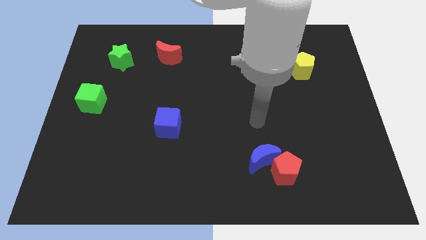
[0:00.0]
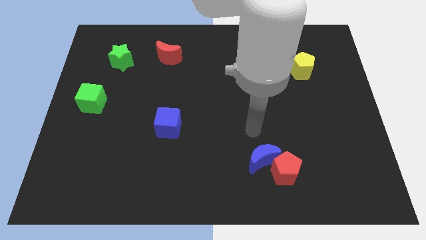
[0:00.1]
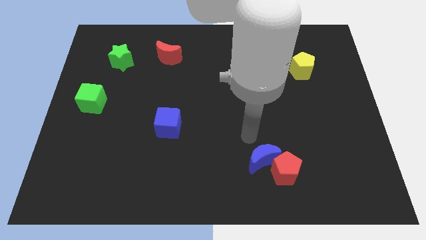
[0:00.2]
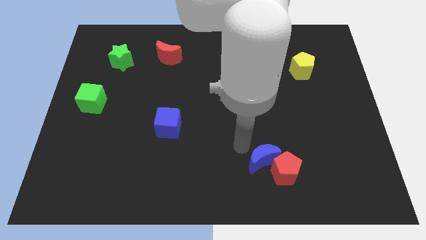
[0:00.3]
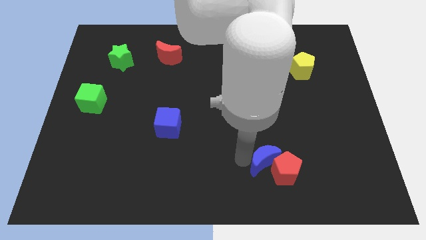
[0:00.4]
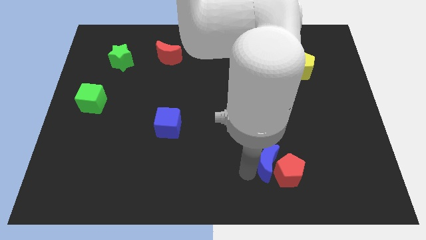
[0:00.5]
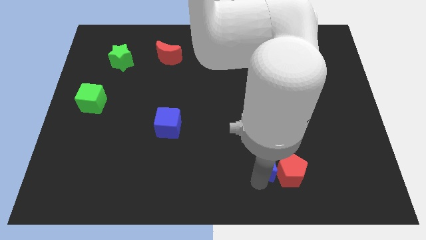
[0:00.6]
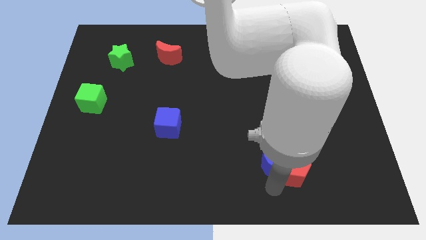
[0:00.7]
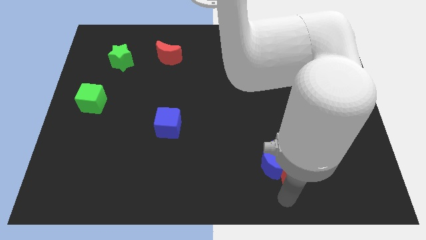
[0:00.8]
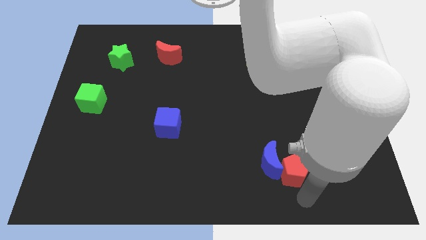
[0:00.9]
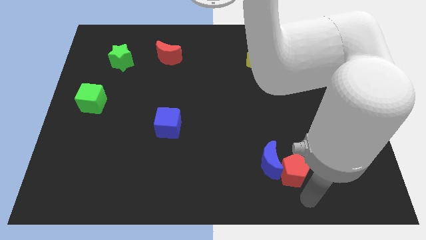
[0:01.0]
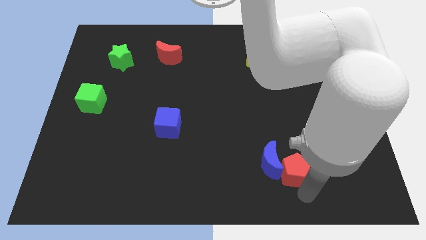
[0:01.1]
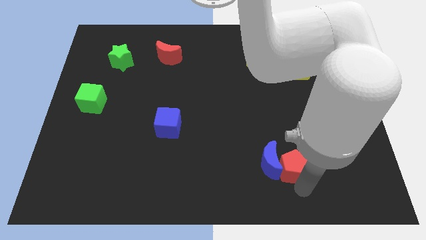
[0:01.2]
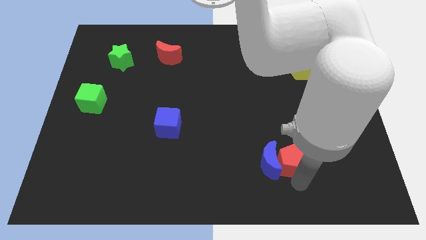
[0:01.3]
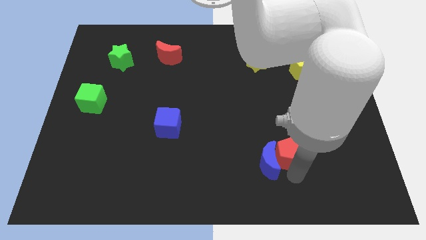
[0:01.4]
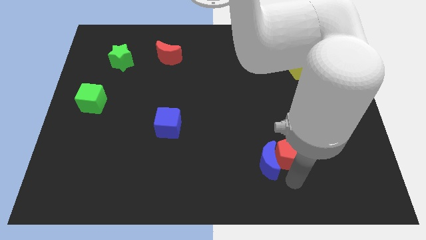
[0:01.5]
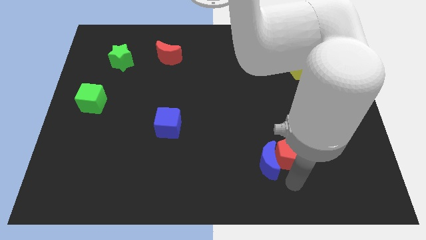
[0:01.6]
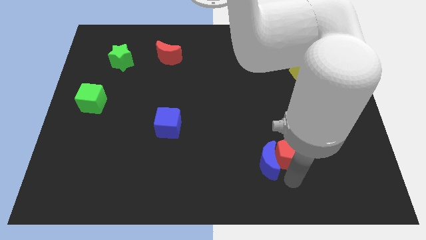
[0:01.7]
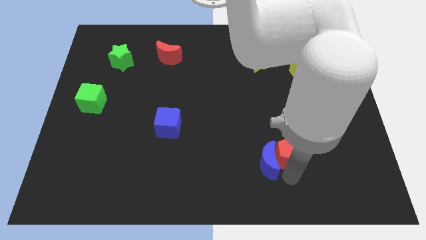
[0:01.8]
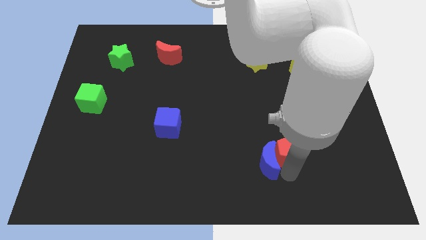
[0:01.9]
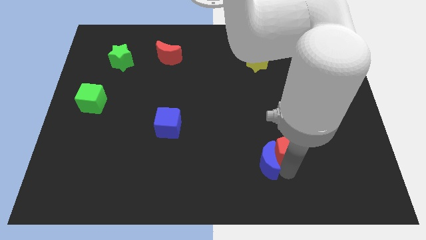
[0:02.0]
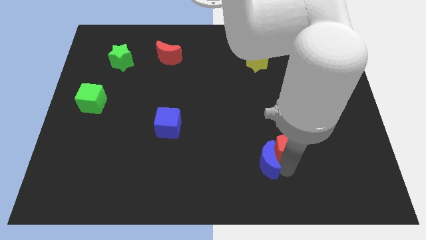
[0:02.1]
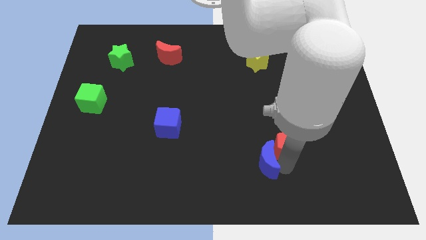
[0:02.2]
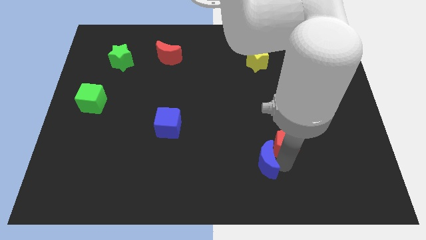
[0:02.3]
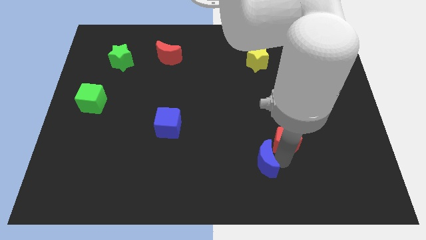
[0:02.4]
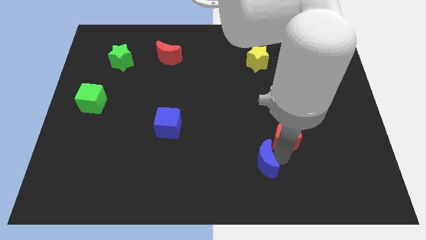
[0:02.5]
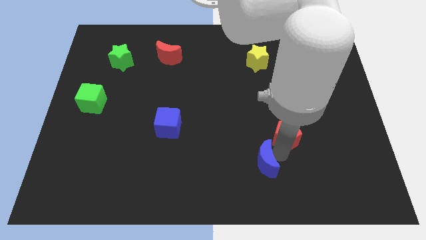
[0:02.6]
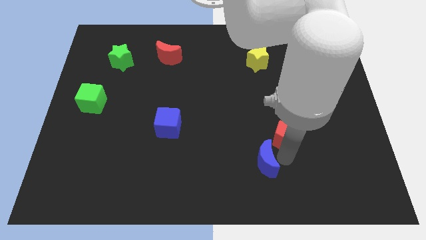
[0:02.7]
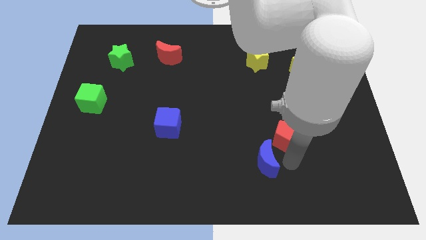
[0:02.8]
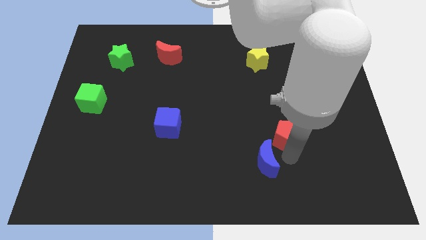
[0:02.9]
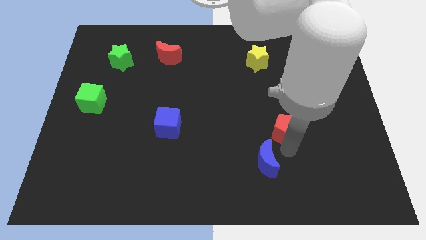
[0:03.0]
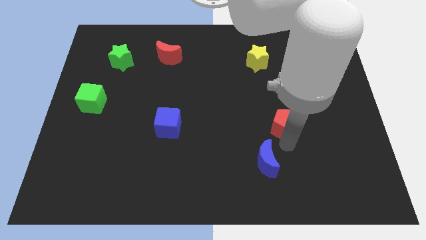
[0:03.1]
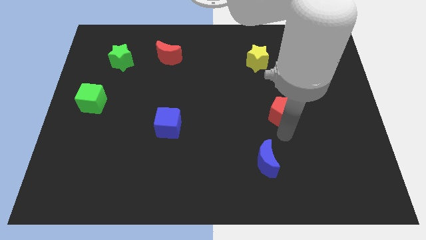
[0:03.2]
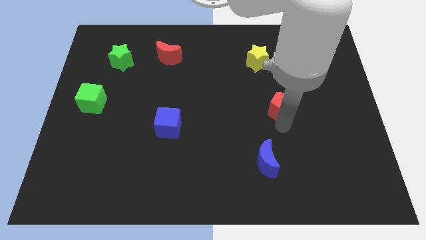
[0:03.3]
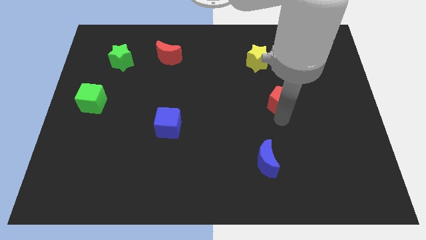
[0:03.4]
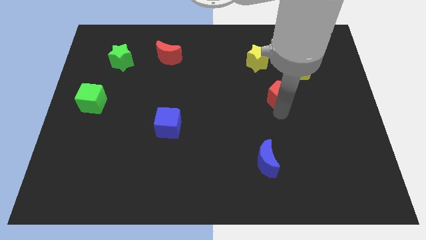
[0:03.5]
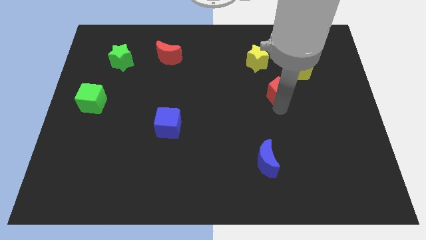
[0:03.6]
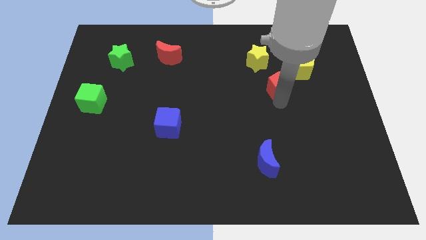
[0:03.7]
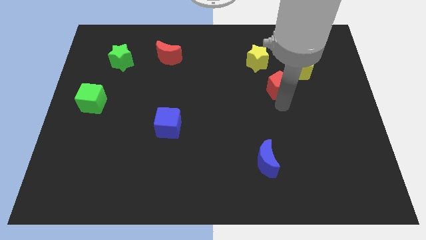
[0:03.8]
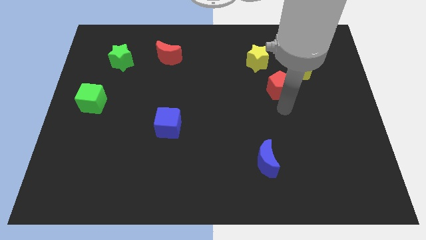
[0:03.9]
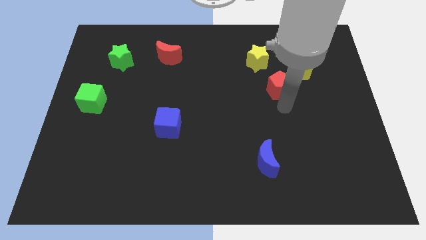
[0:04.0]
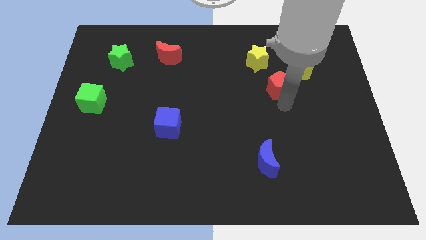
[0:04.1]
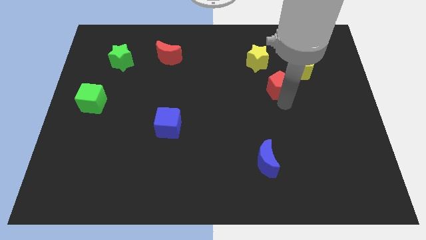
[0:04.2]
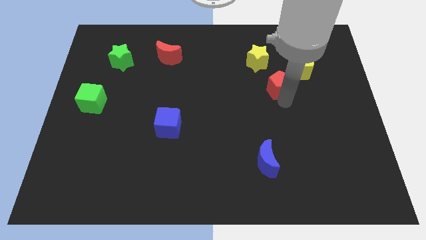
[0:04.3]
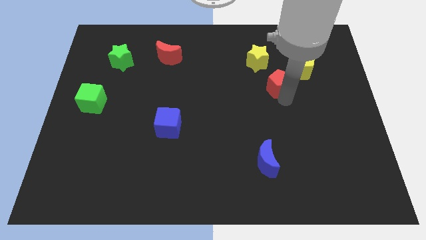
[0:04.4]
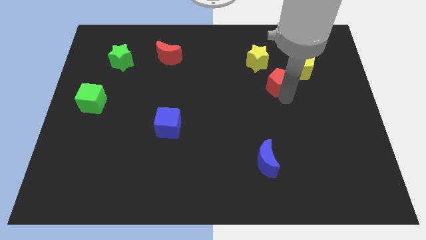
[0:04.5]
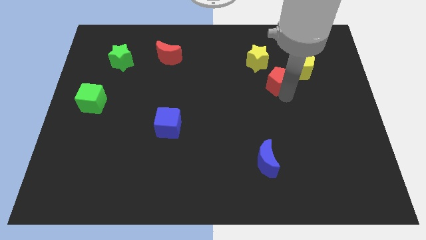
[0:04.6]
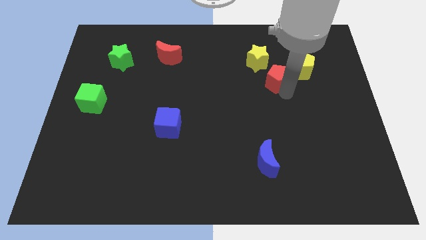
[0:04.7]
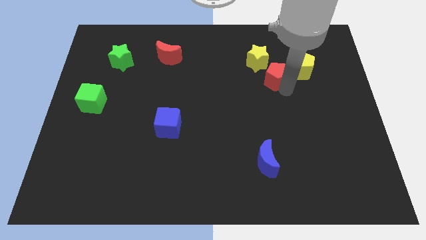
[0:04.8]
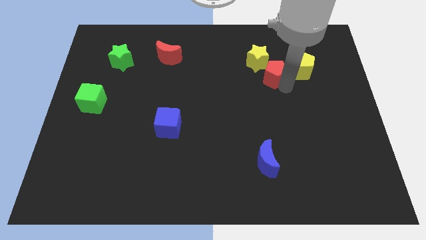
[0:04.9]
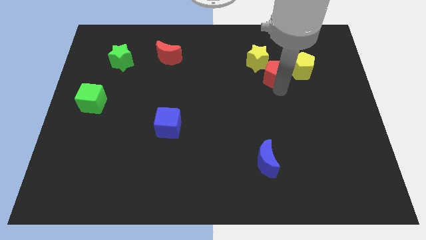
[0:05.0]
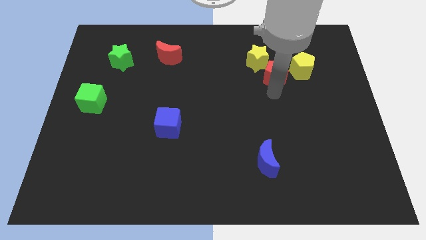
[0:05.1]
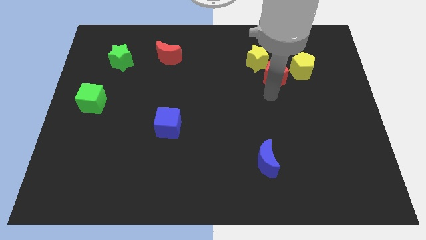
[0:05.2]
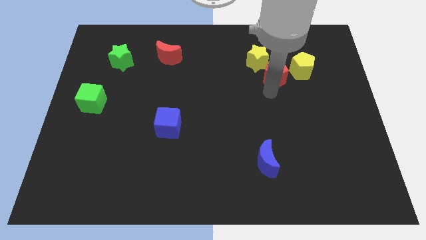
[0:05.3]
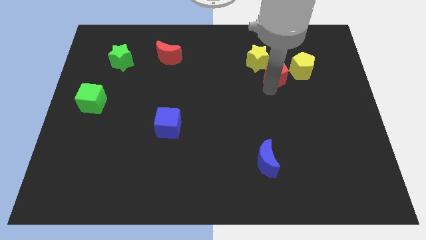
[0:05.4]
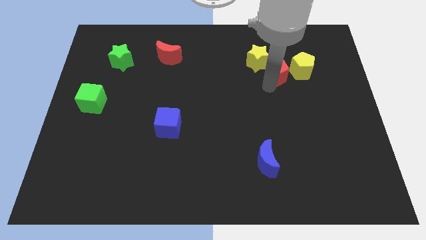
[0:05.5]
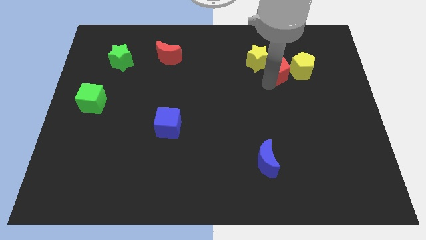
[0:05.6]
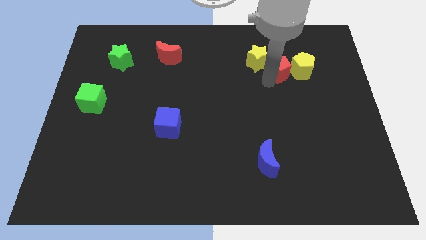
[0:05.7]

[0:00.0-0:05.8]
push the red pentagon to the top left side of the yellow pentagon

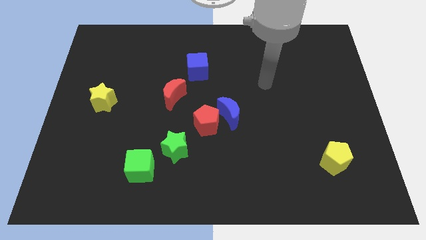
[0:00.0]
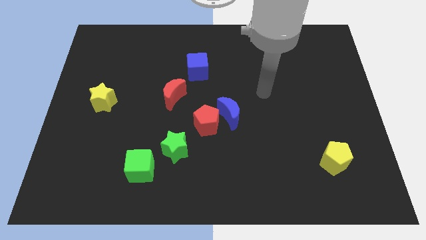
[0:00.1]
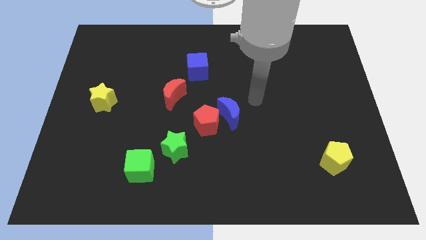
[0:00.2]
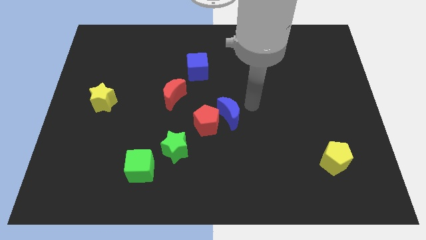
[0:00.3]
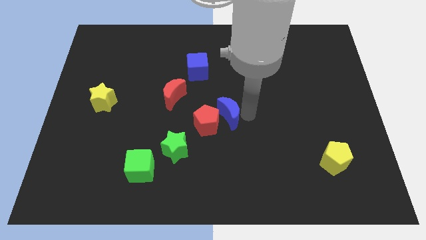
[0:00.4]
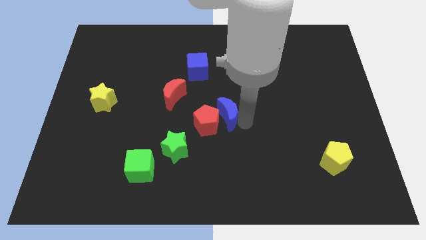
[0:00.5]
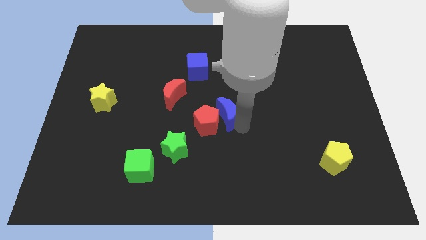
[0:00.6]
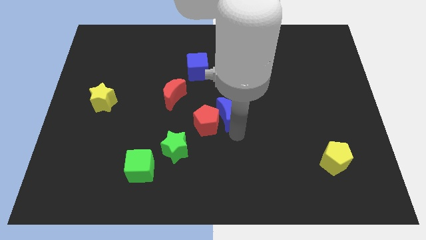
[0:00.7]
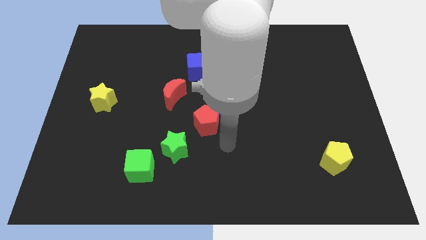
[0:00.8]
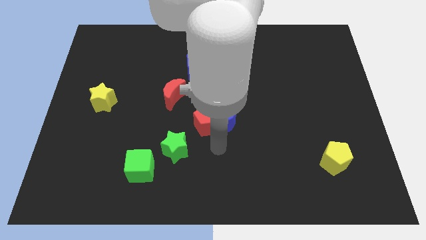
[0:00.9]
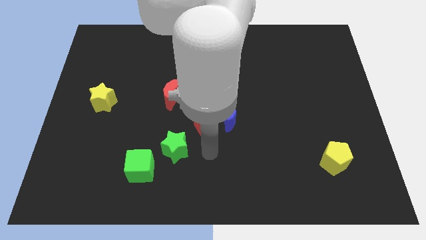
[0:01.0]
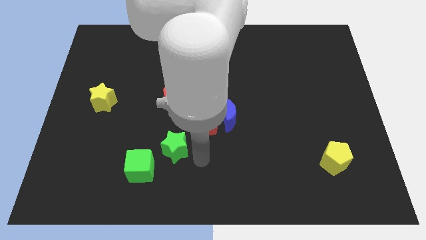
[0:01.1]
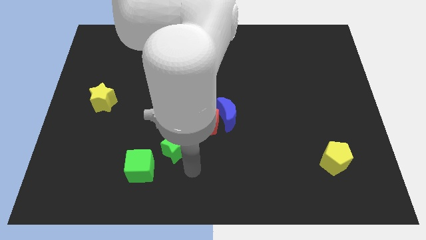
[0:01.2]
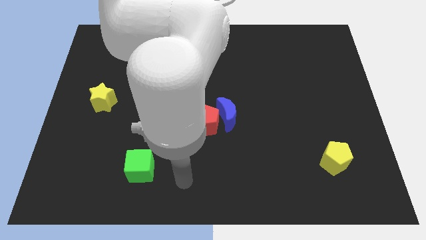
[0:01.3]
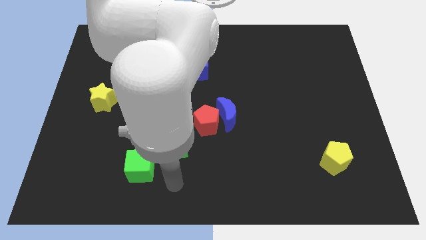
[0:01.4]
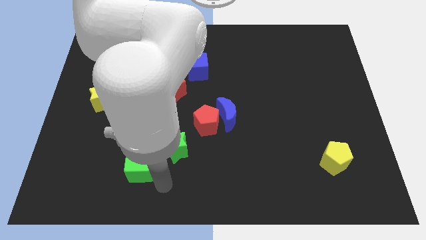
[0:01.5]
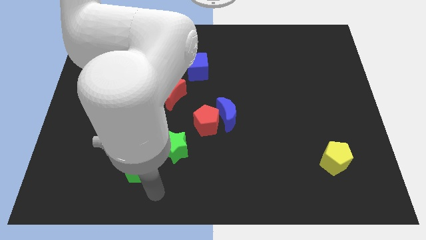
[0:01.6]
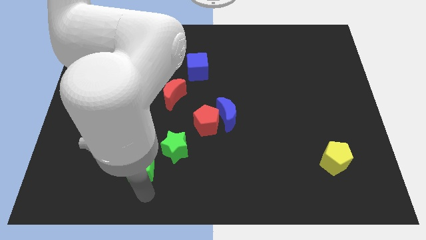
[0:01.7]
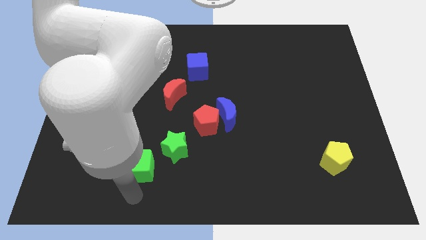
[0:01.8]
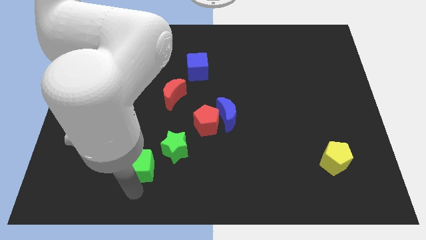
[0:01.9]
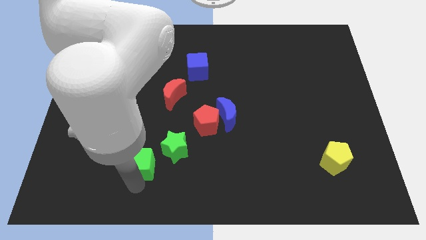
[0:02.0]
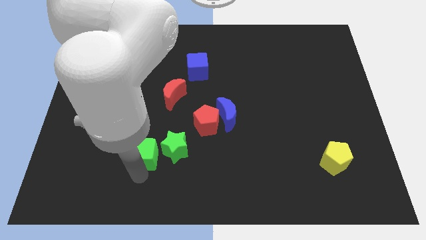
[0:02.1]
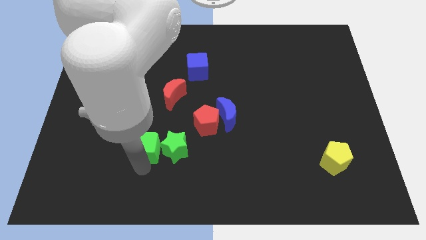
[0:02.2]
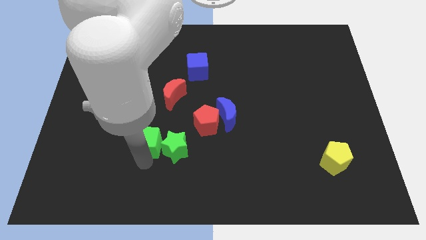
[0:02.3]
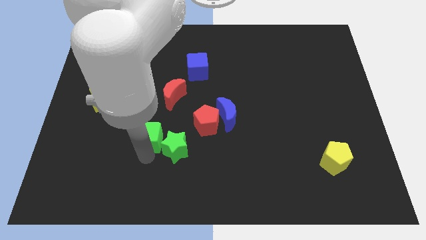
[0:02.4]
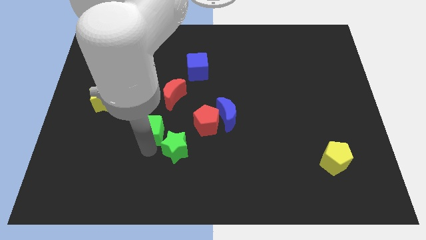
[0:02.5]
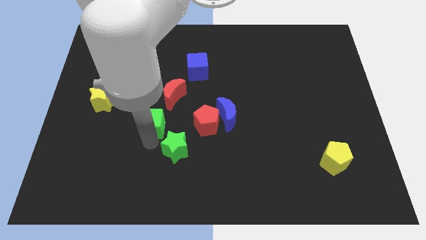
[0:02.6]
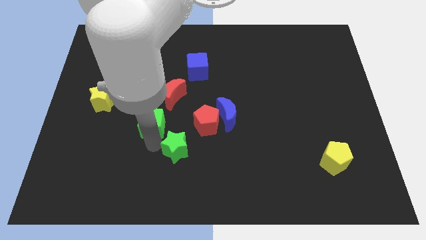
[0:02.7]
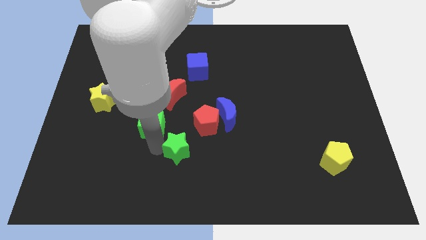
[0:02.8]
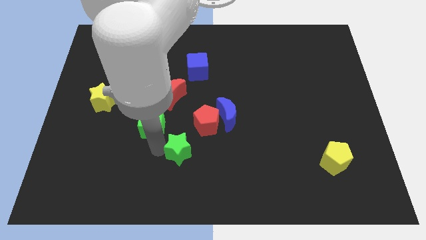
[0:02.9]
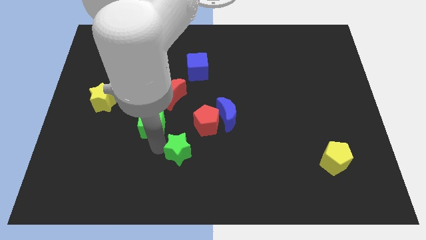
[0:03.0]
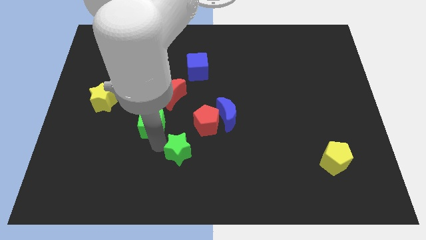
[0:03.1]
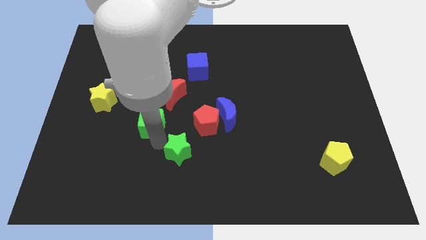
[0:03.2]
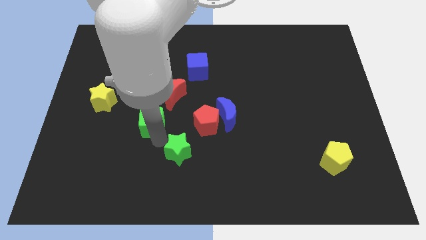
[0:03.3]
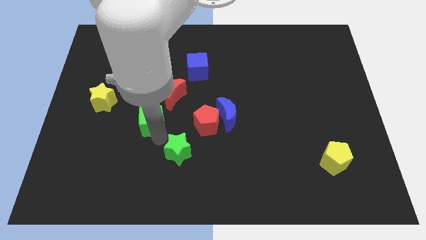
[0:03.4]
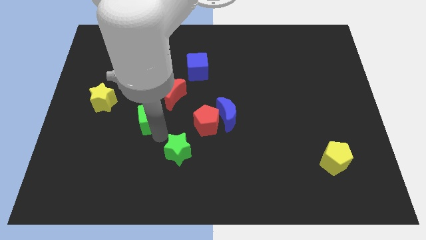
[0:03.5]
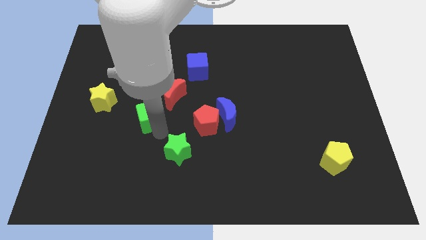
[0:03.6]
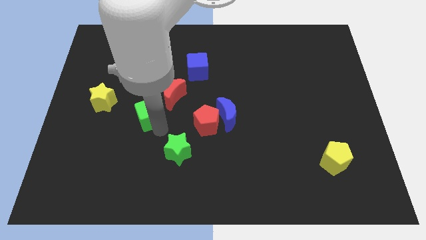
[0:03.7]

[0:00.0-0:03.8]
slide the green cube to the right side of the yellow star
